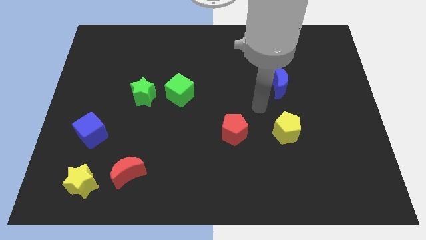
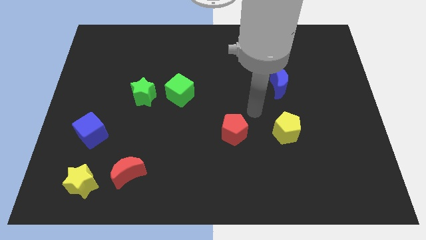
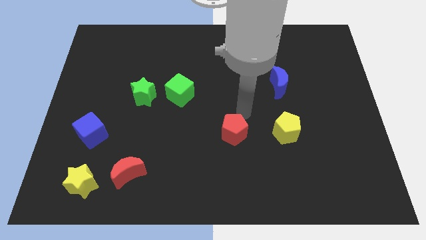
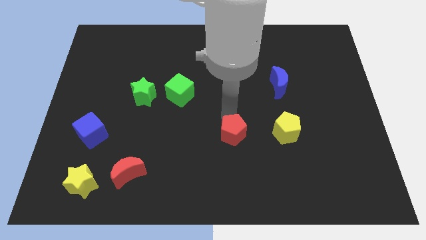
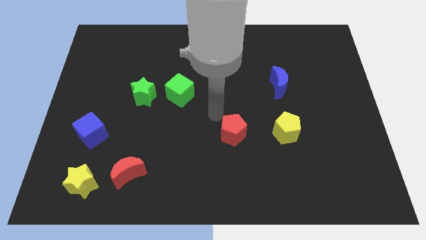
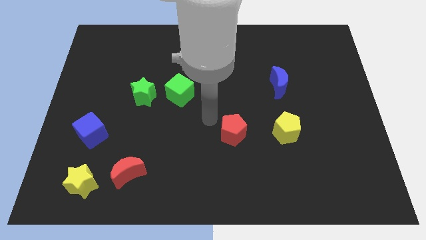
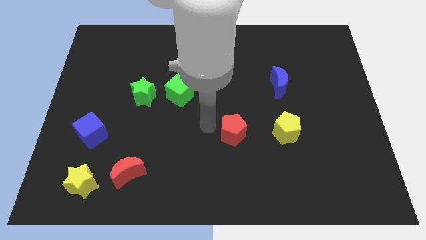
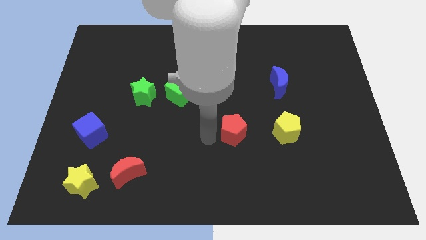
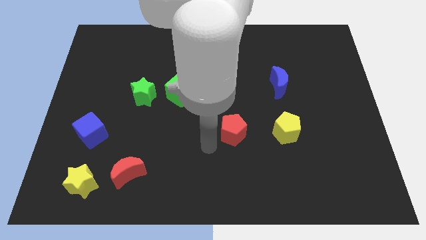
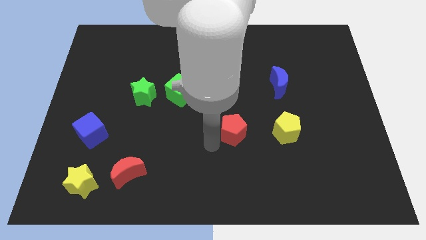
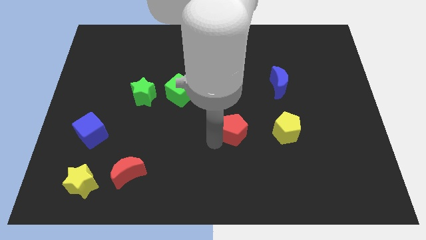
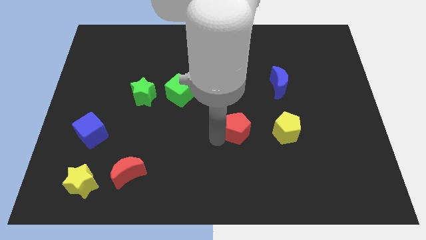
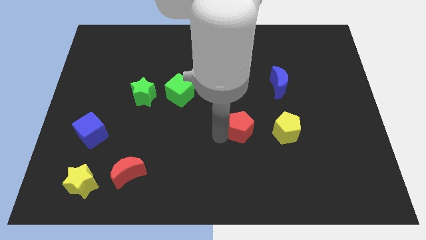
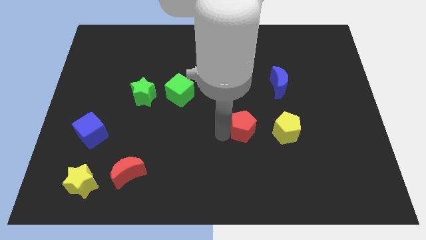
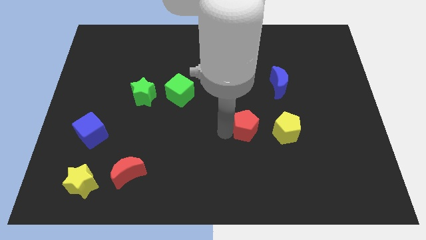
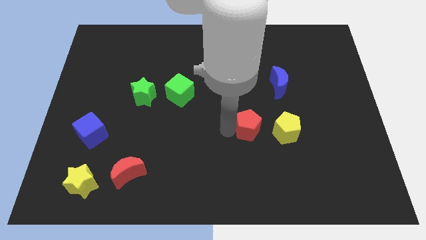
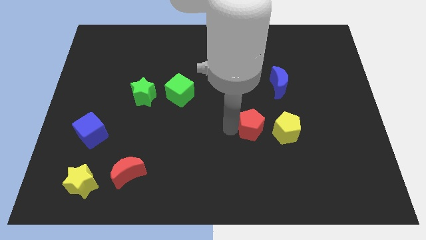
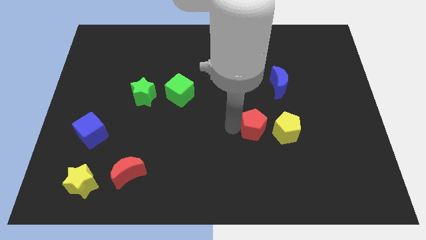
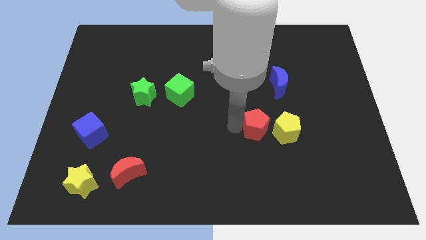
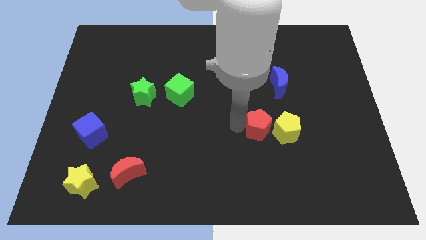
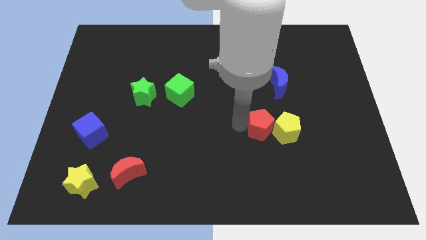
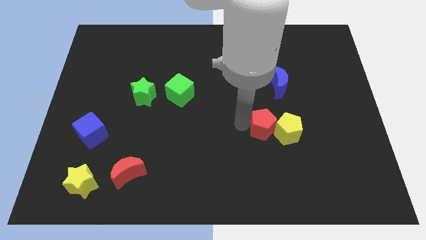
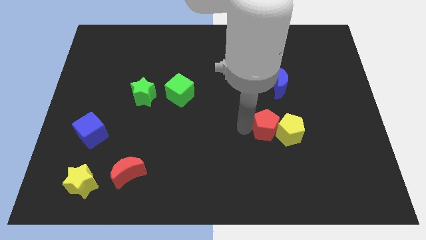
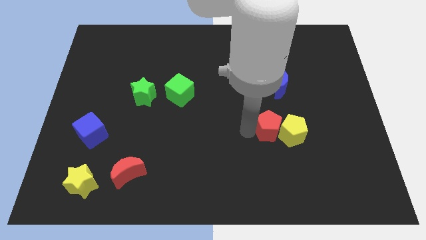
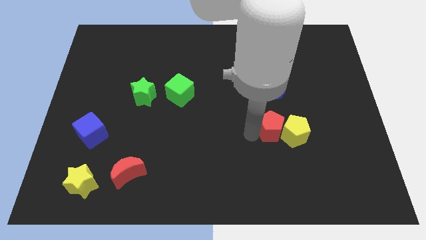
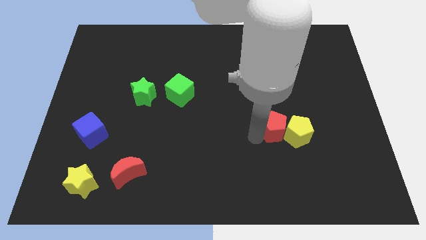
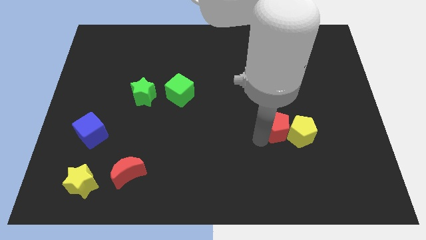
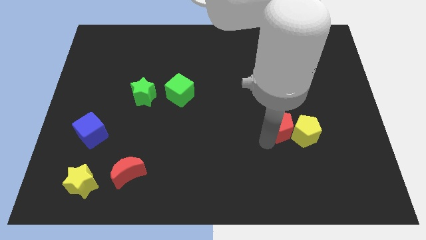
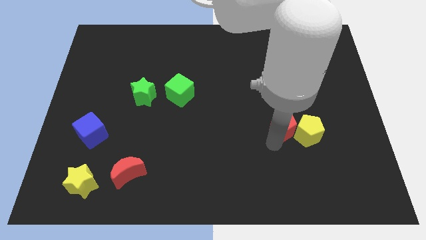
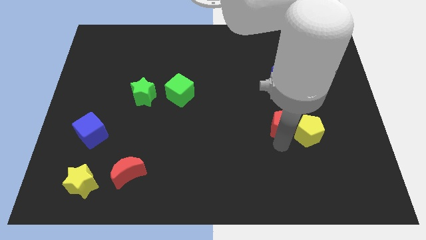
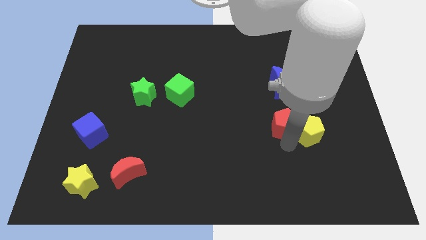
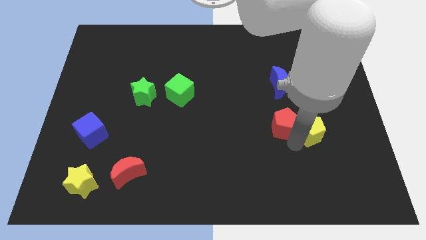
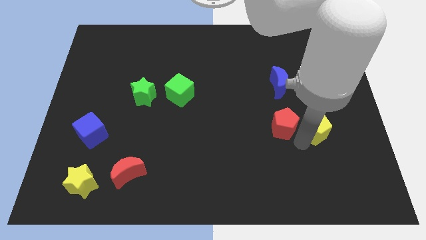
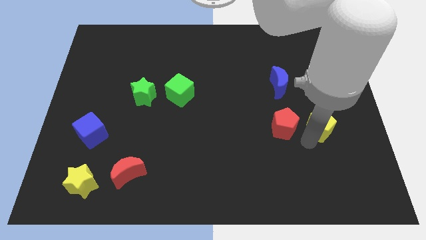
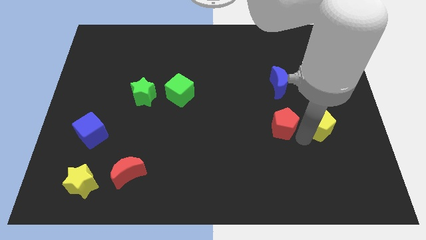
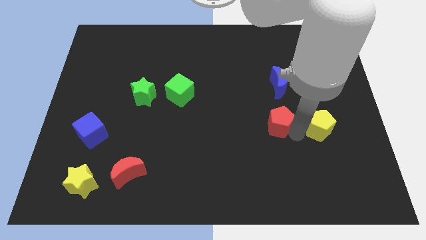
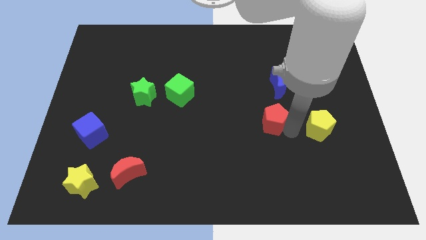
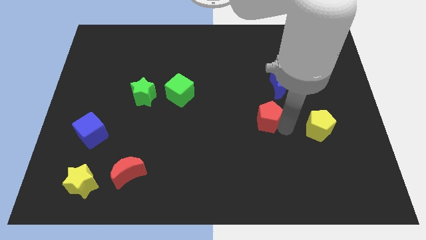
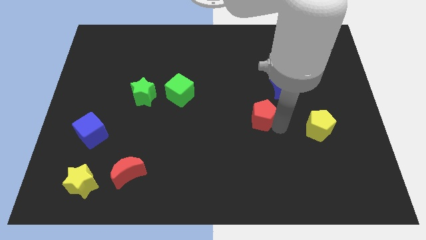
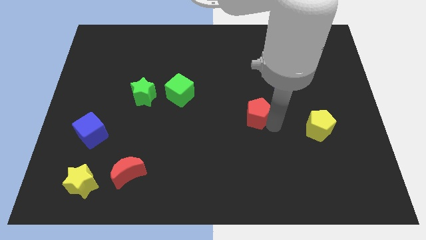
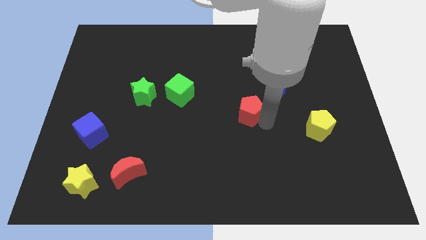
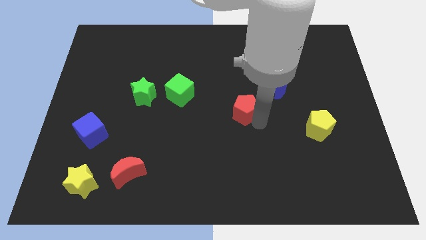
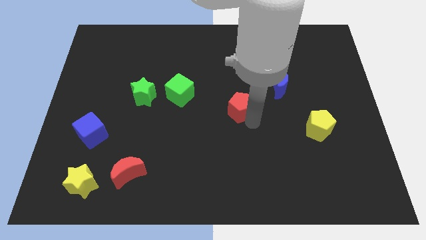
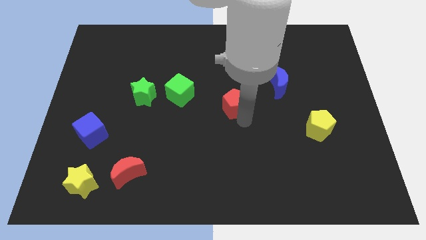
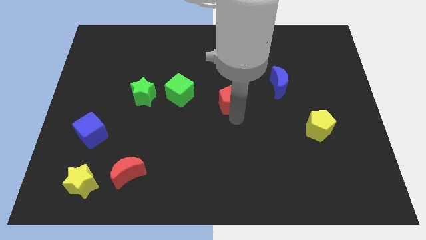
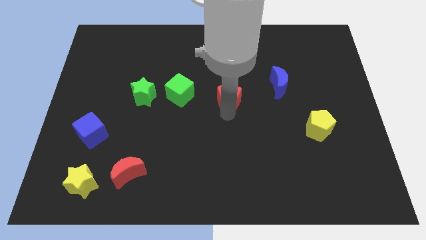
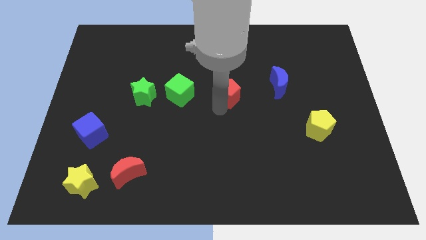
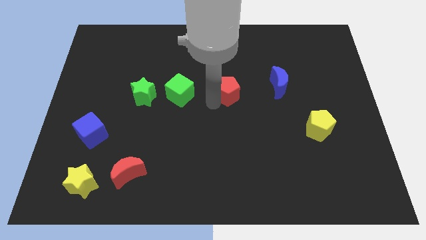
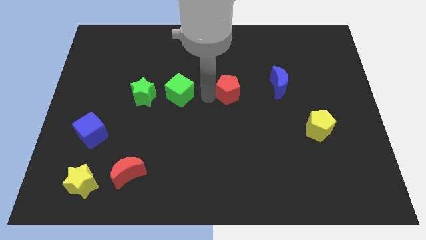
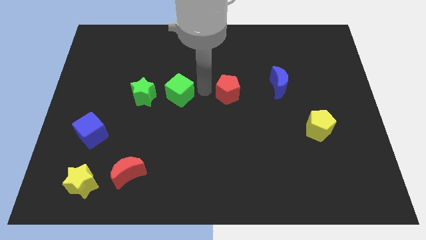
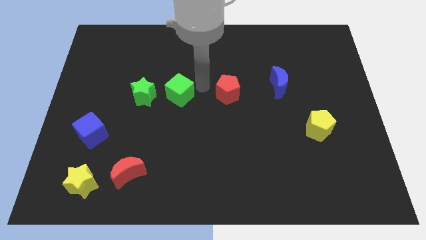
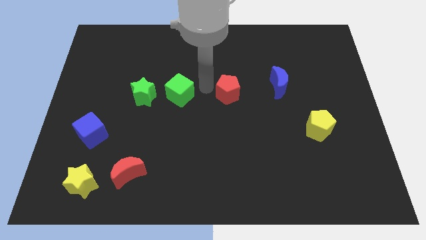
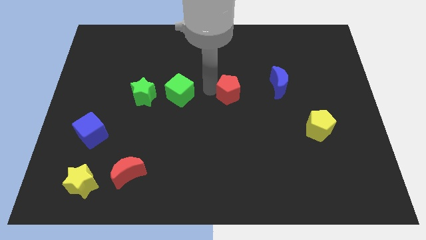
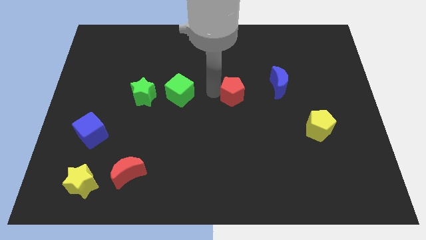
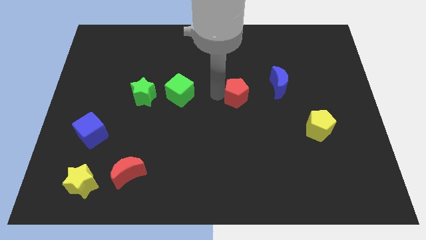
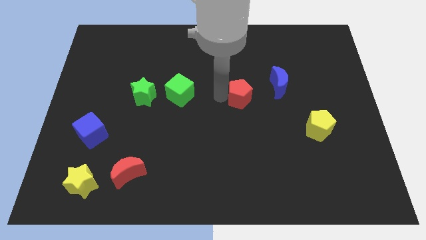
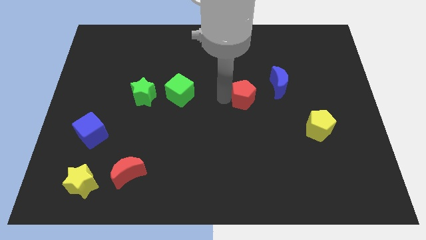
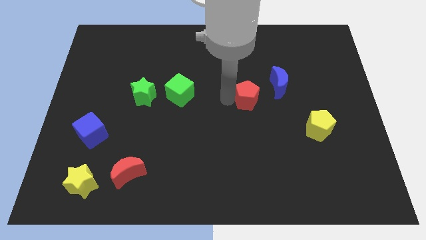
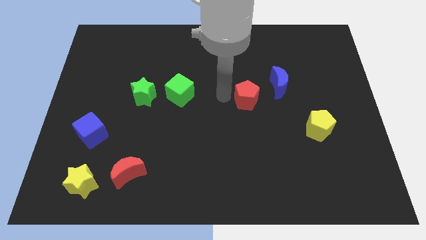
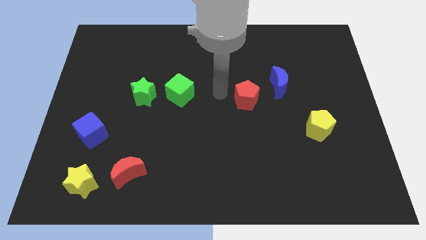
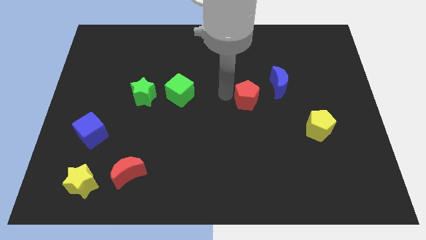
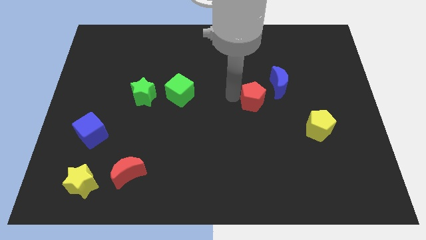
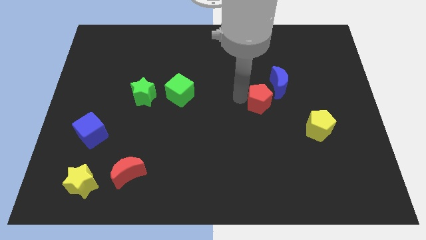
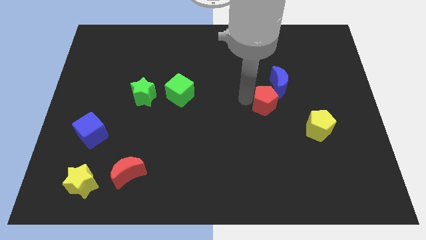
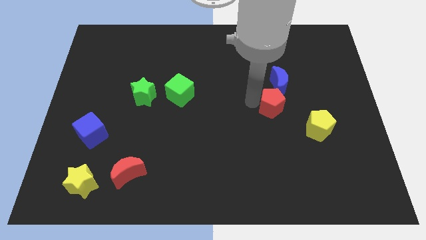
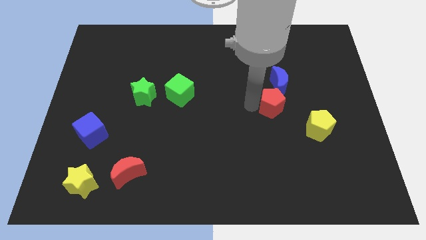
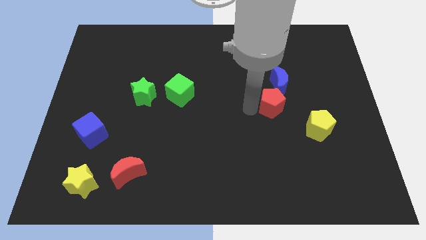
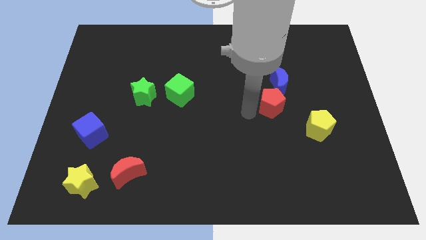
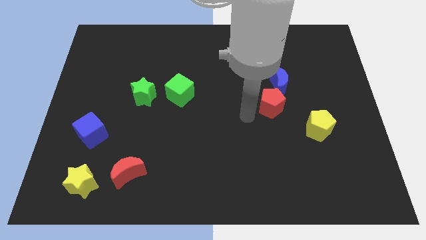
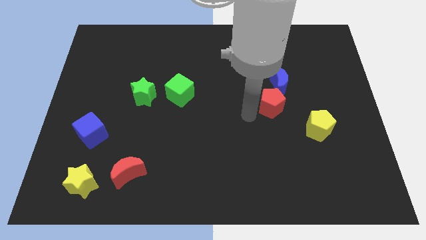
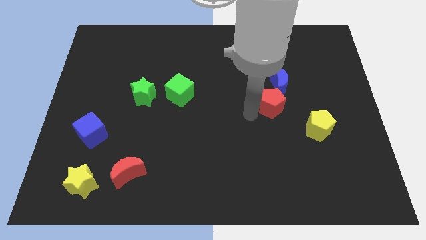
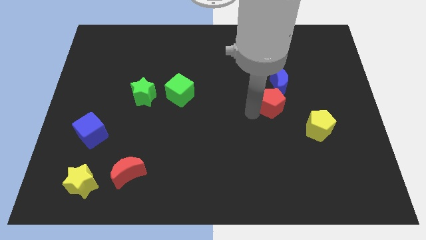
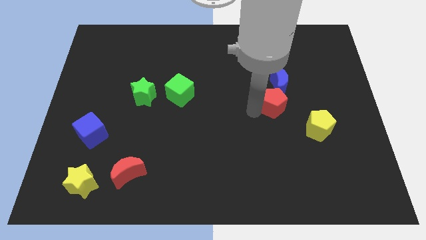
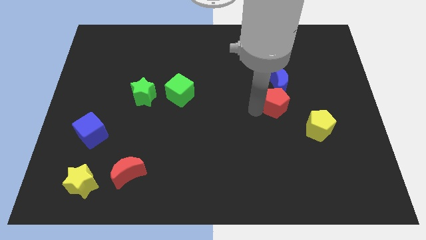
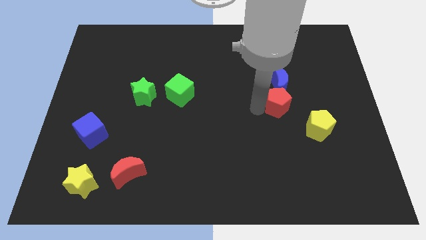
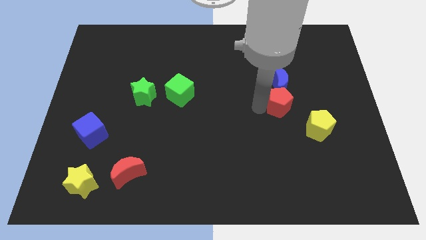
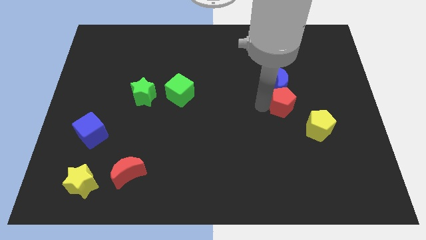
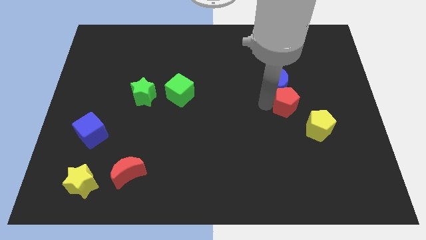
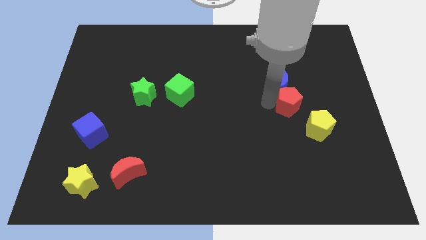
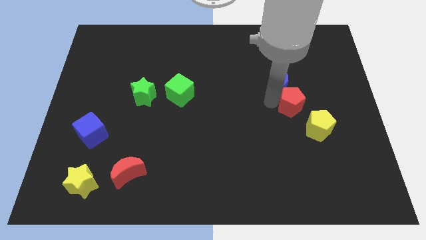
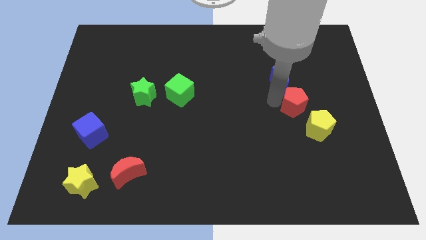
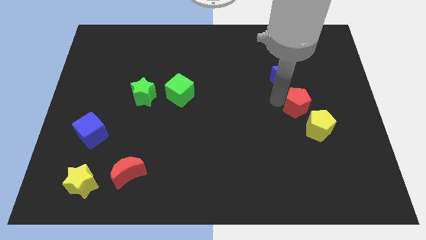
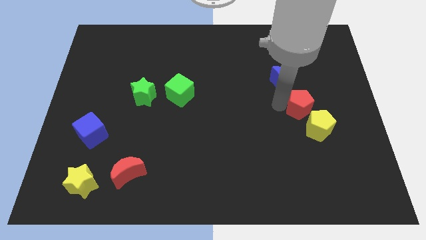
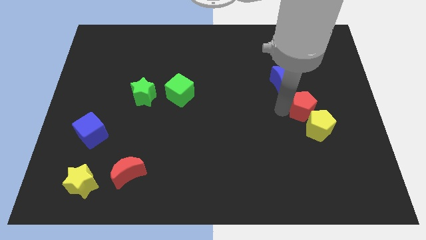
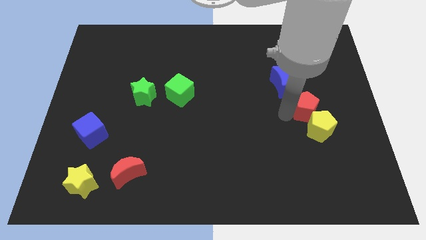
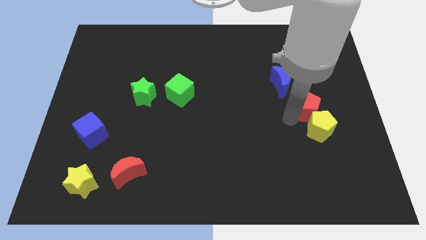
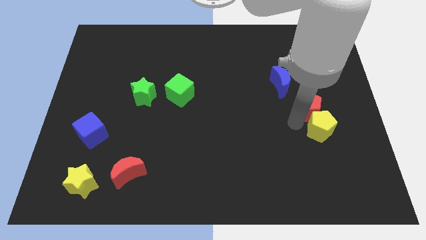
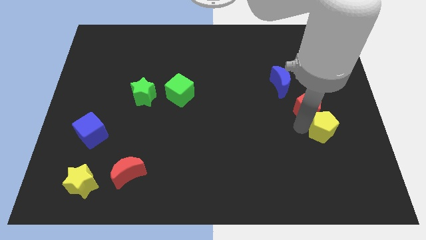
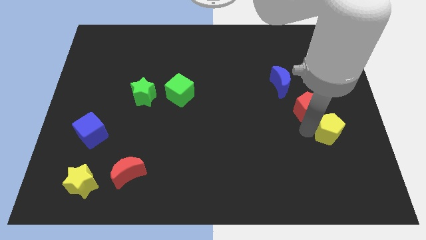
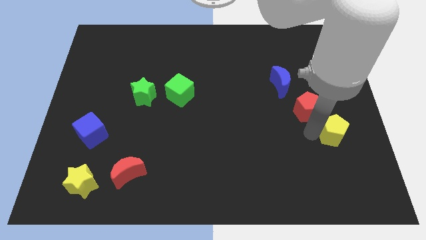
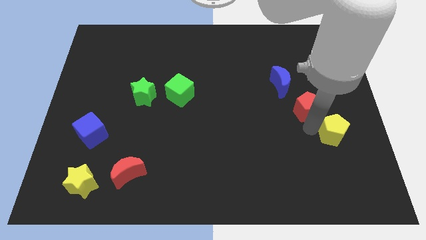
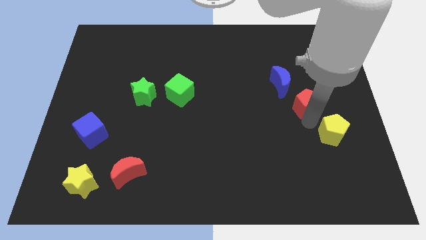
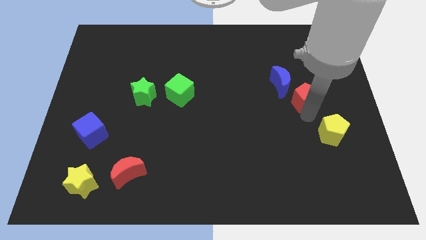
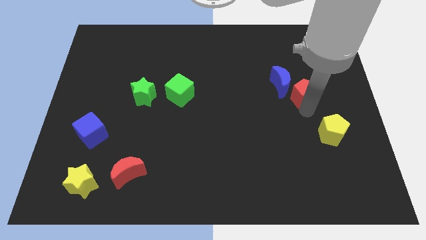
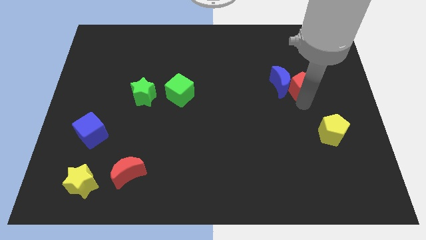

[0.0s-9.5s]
move the red pentagon up and to the right diagonally
